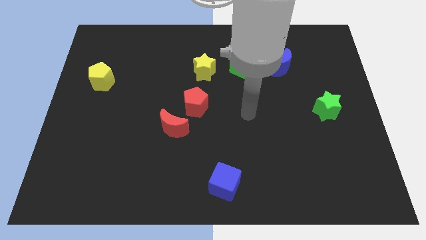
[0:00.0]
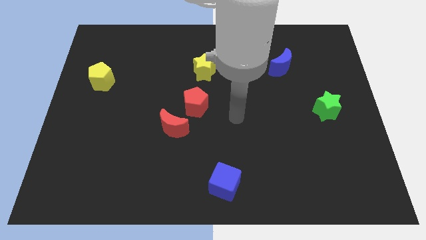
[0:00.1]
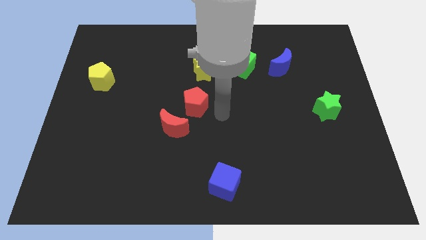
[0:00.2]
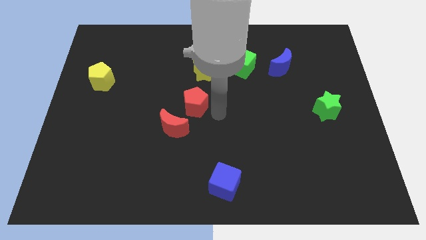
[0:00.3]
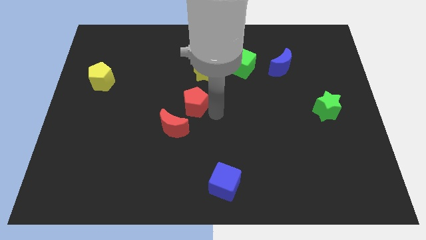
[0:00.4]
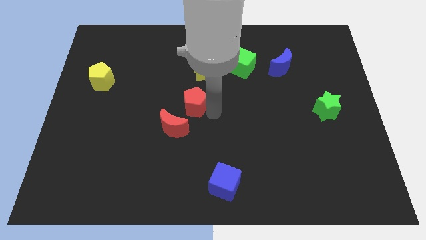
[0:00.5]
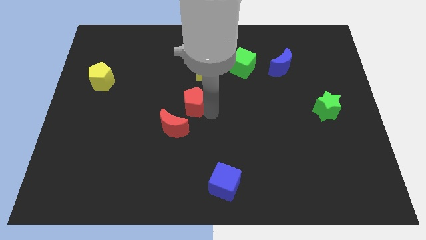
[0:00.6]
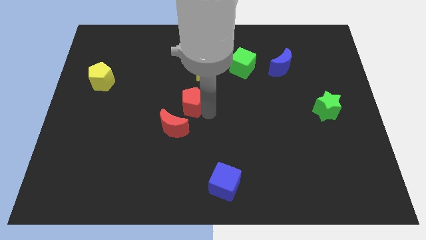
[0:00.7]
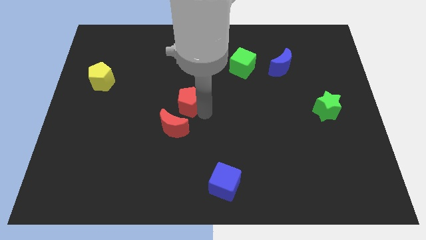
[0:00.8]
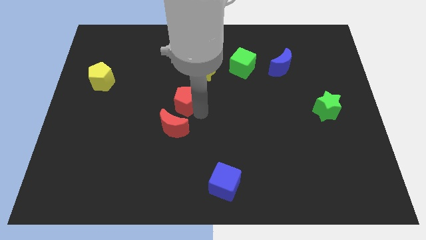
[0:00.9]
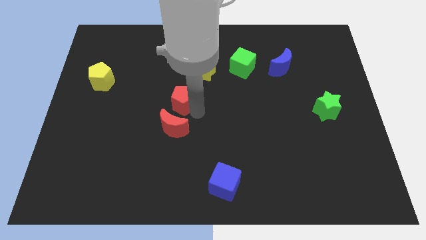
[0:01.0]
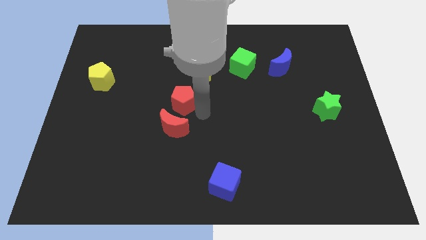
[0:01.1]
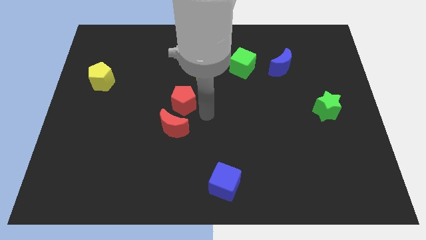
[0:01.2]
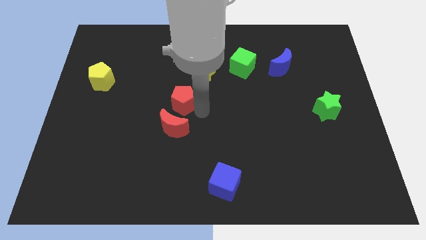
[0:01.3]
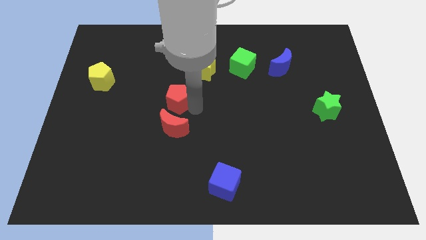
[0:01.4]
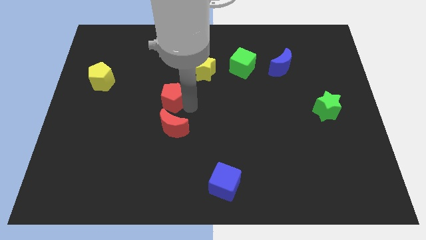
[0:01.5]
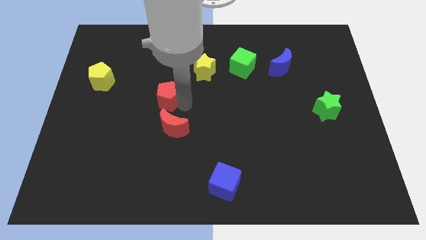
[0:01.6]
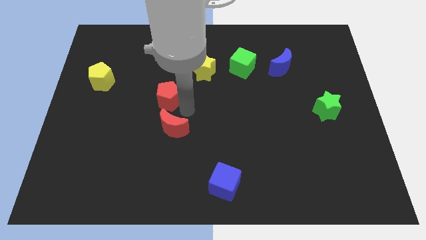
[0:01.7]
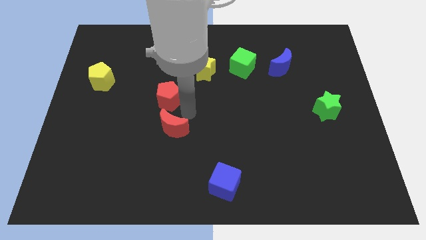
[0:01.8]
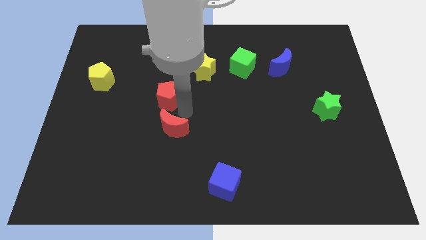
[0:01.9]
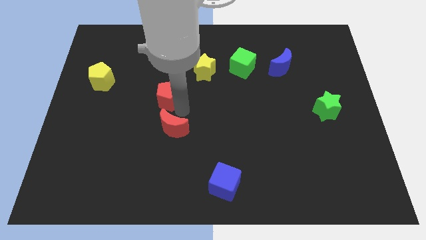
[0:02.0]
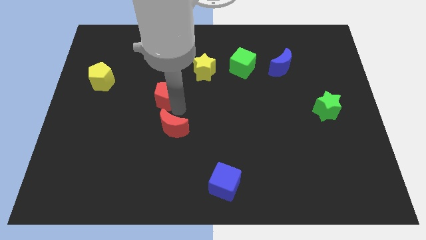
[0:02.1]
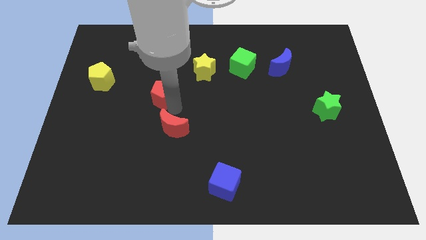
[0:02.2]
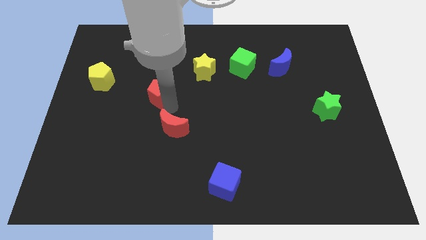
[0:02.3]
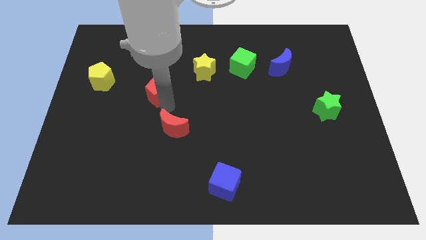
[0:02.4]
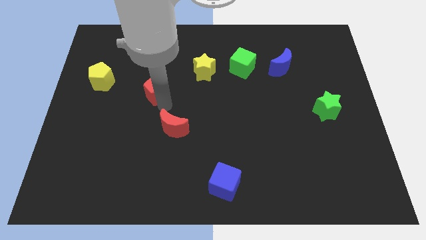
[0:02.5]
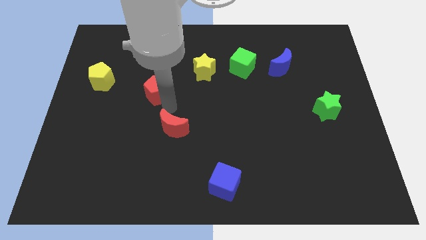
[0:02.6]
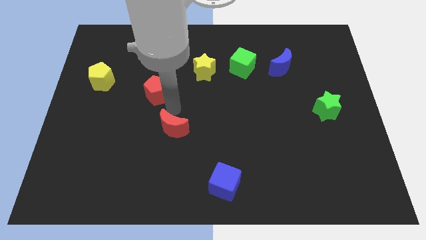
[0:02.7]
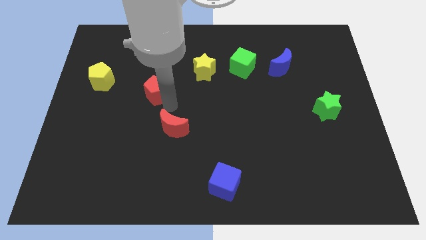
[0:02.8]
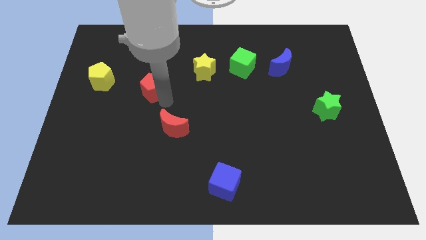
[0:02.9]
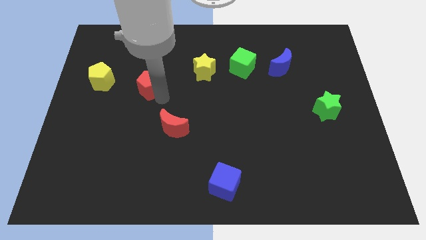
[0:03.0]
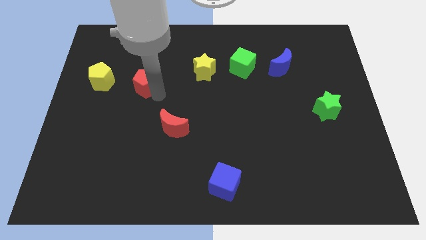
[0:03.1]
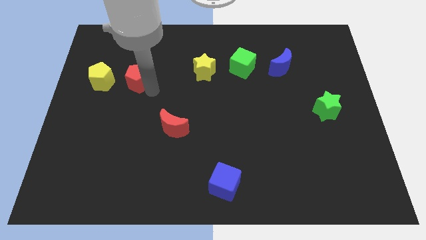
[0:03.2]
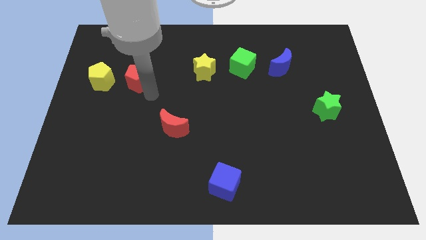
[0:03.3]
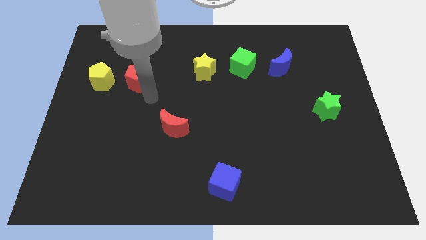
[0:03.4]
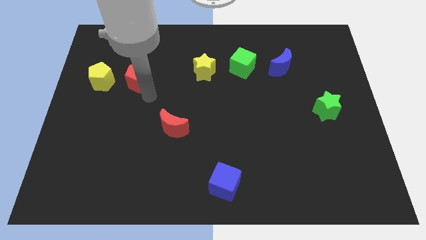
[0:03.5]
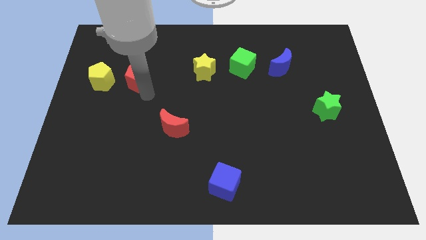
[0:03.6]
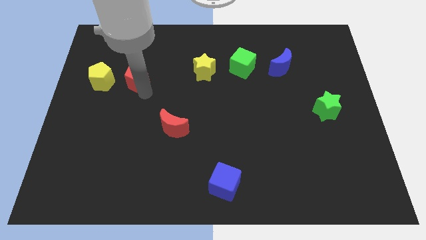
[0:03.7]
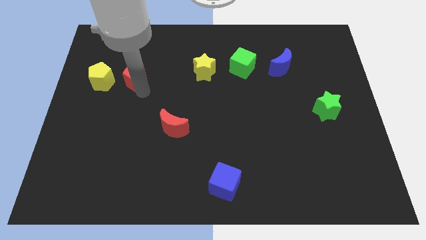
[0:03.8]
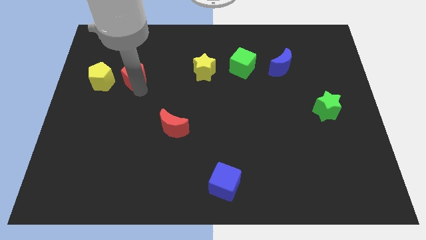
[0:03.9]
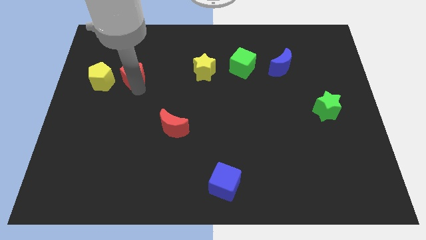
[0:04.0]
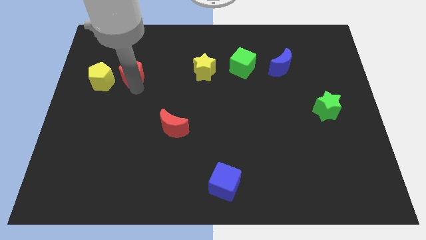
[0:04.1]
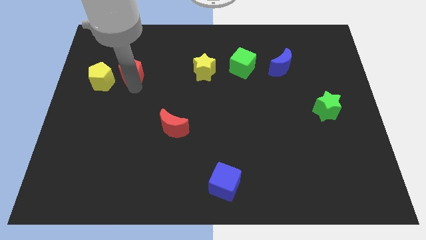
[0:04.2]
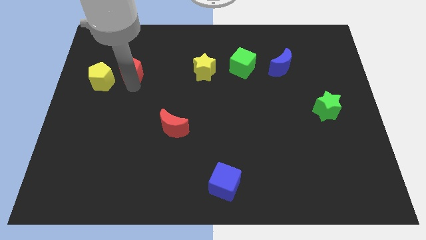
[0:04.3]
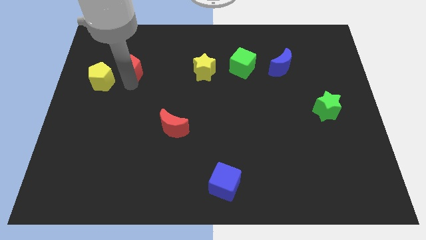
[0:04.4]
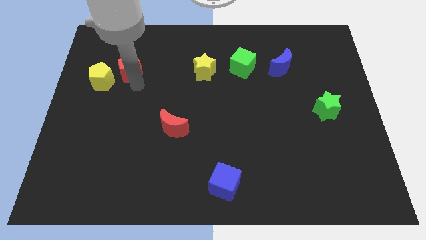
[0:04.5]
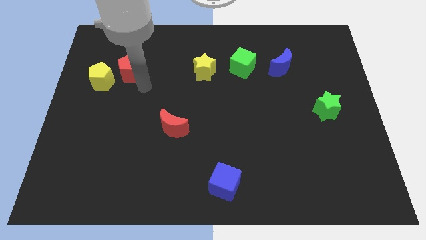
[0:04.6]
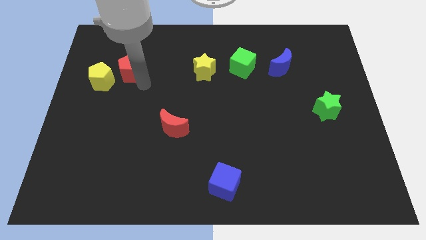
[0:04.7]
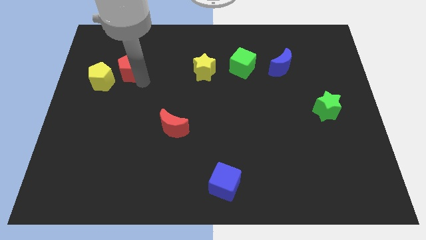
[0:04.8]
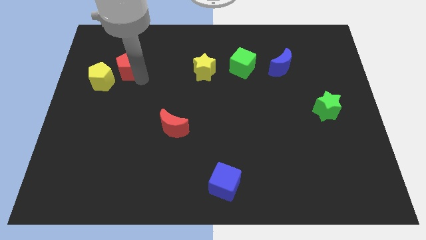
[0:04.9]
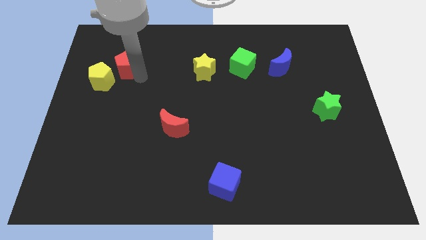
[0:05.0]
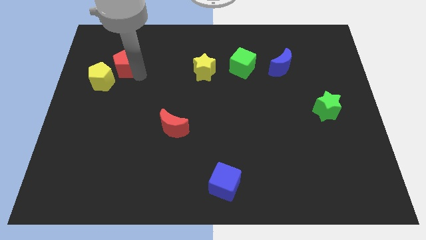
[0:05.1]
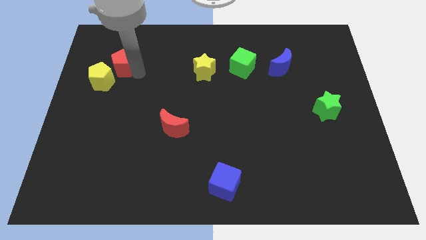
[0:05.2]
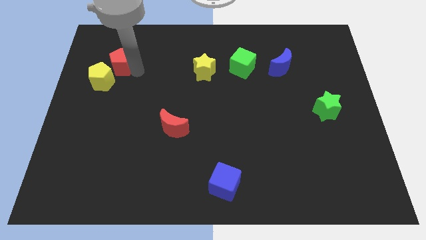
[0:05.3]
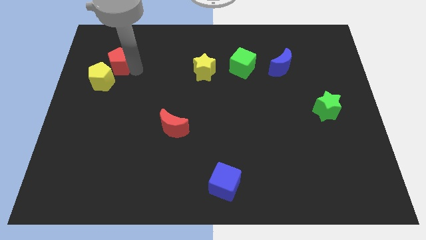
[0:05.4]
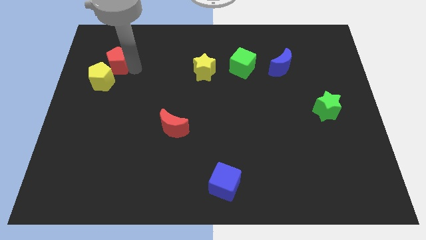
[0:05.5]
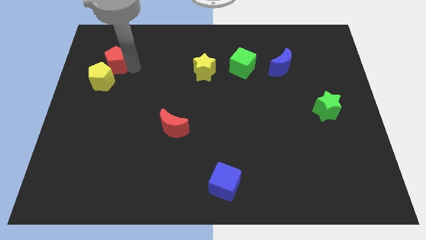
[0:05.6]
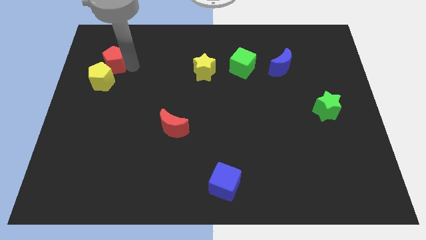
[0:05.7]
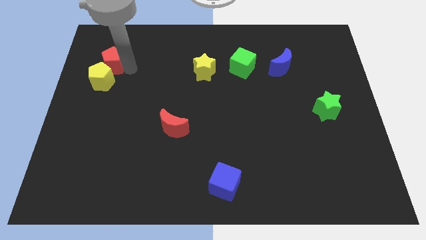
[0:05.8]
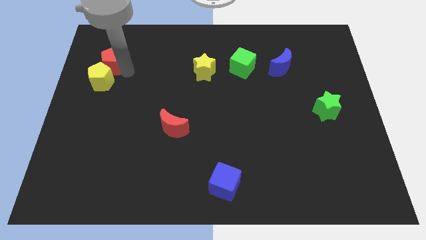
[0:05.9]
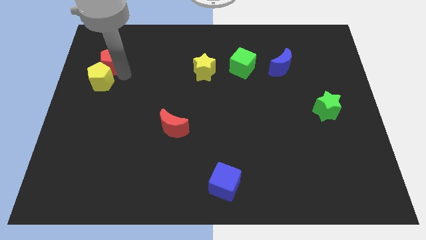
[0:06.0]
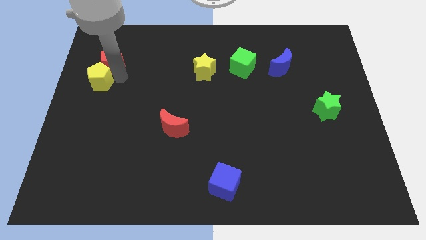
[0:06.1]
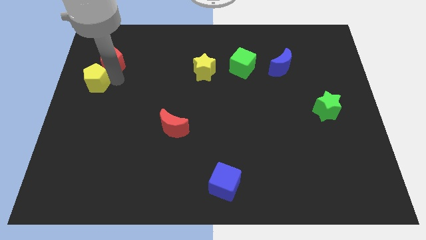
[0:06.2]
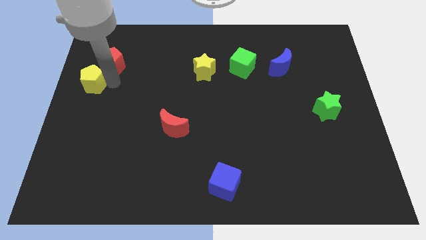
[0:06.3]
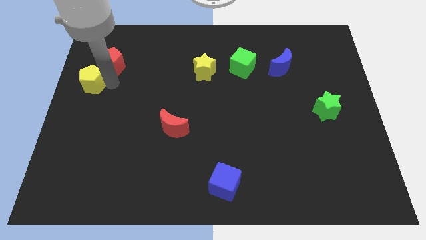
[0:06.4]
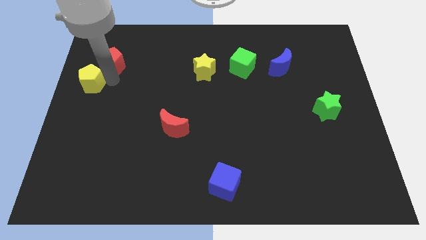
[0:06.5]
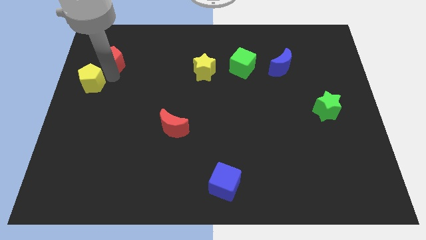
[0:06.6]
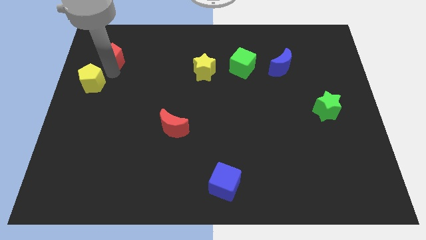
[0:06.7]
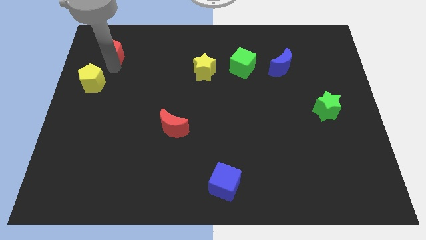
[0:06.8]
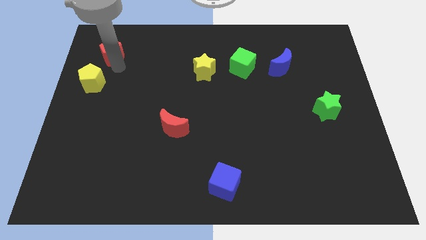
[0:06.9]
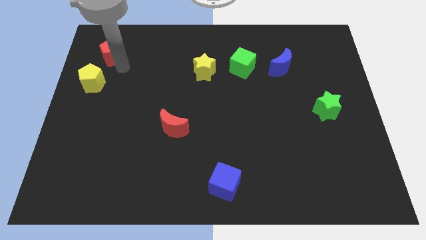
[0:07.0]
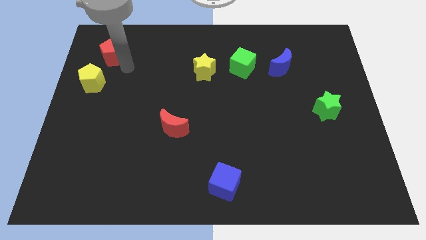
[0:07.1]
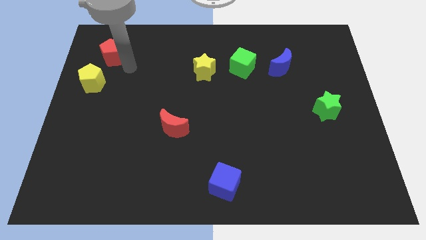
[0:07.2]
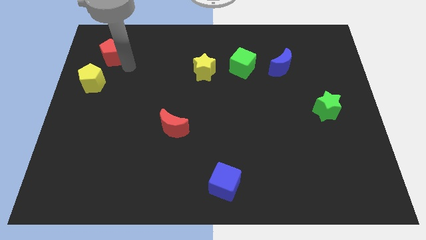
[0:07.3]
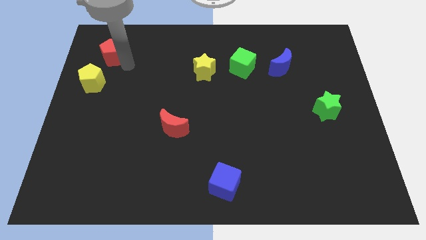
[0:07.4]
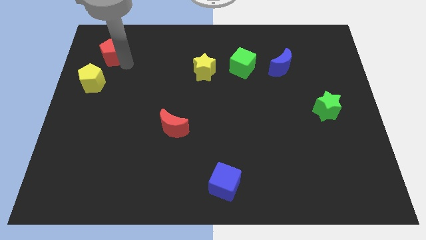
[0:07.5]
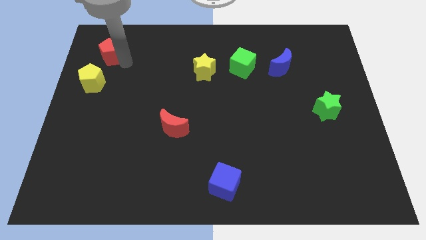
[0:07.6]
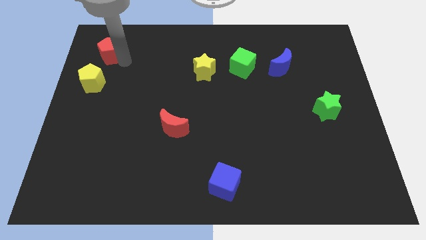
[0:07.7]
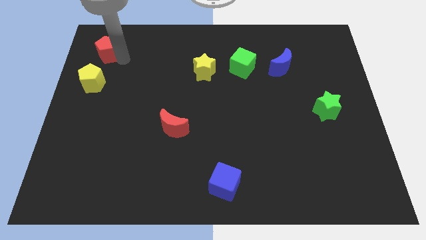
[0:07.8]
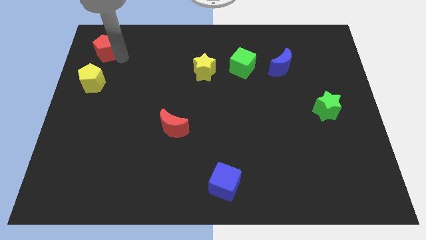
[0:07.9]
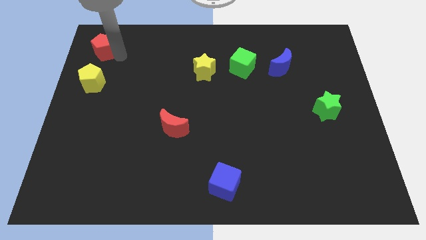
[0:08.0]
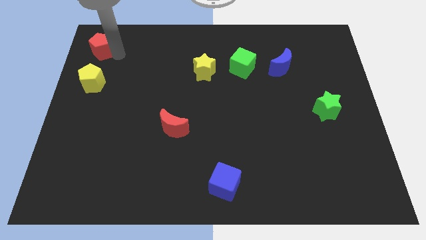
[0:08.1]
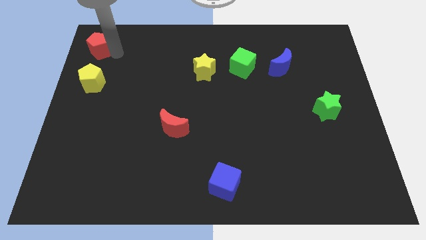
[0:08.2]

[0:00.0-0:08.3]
move the red pentagon to the upper left corner
